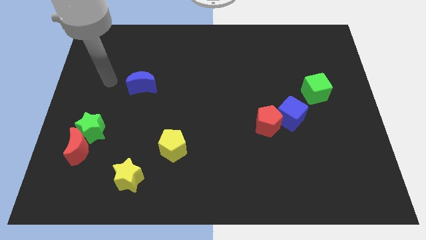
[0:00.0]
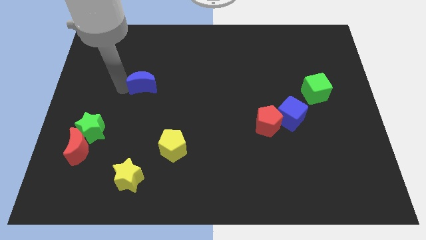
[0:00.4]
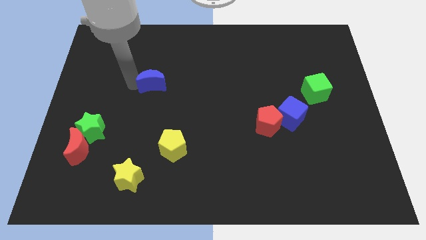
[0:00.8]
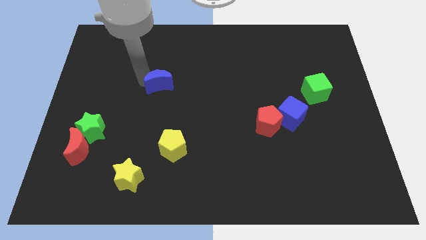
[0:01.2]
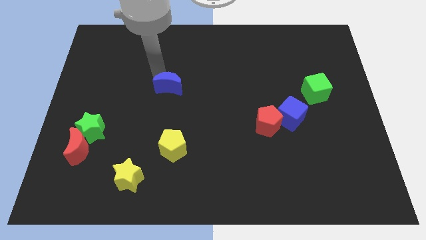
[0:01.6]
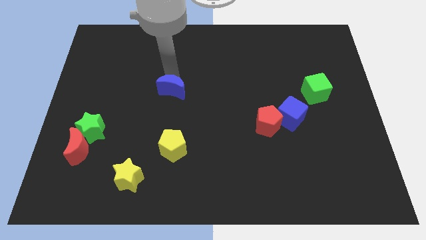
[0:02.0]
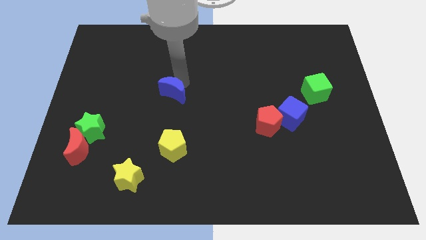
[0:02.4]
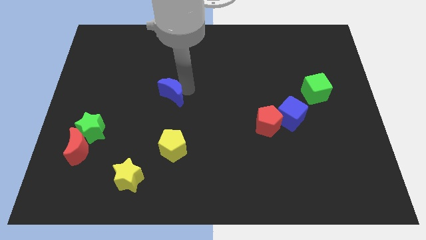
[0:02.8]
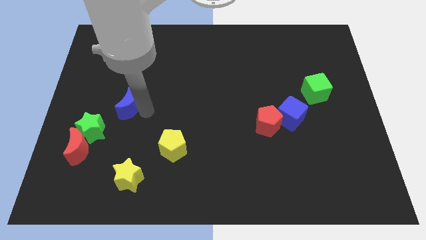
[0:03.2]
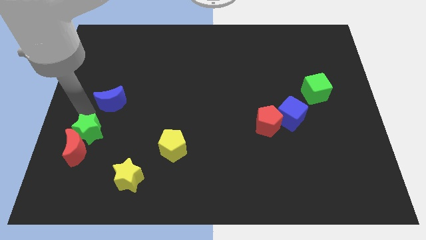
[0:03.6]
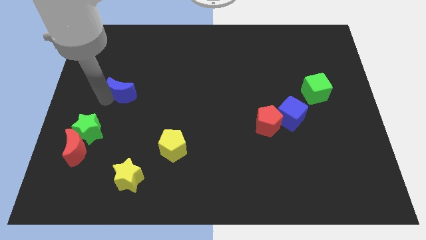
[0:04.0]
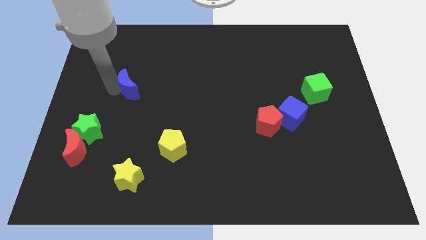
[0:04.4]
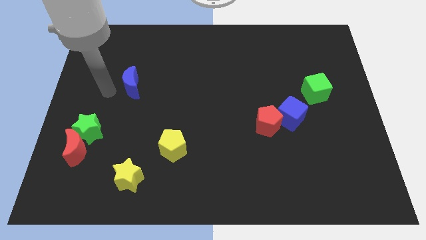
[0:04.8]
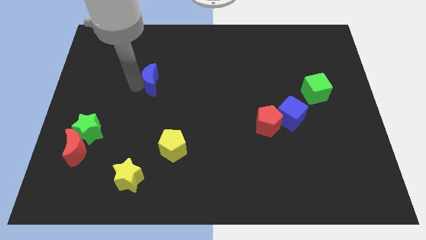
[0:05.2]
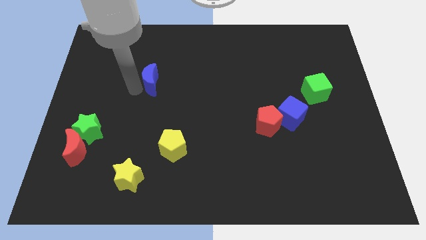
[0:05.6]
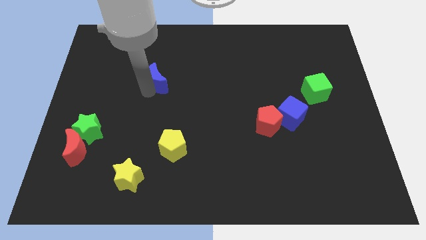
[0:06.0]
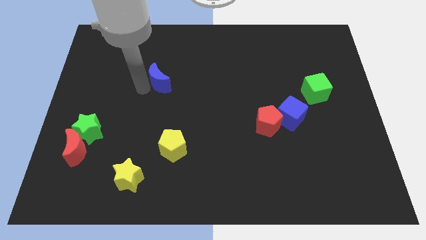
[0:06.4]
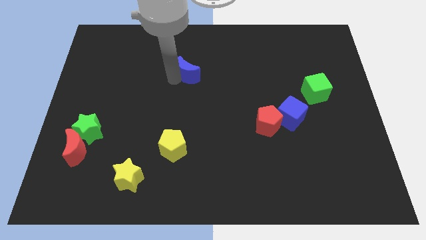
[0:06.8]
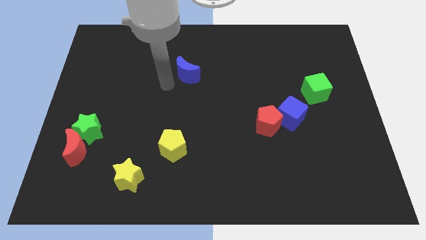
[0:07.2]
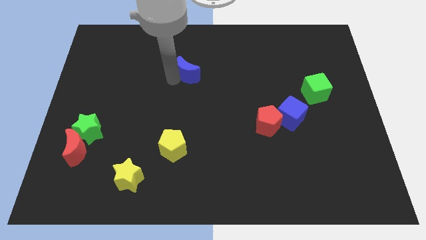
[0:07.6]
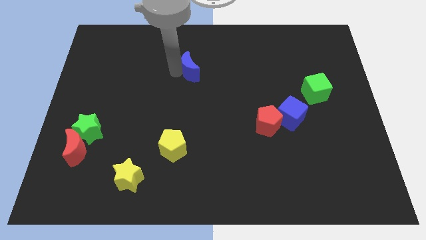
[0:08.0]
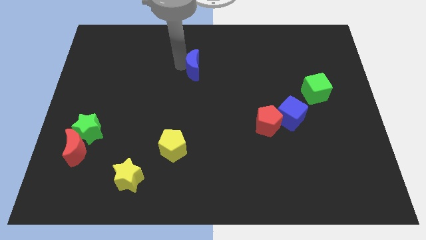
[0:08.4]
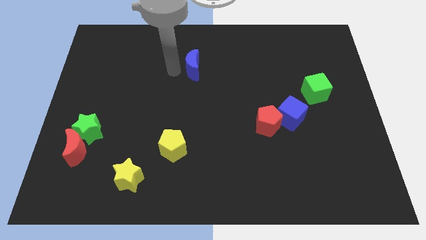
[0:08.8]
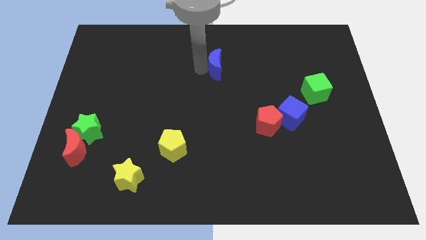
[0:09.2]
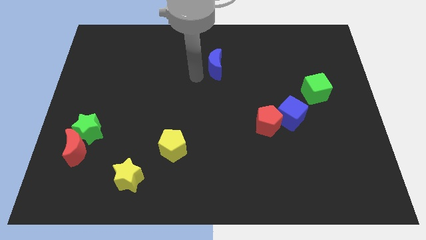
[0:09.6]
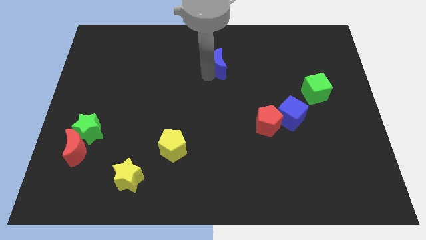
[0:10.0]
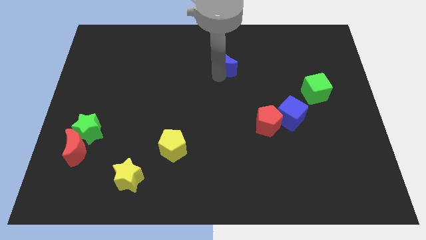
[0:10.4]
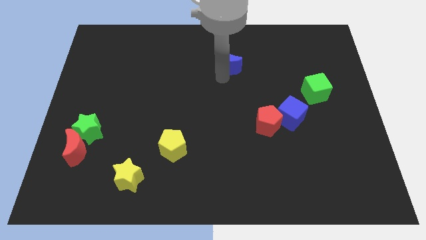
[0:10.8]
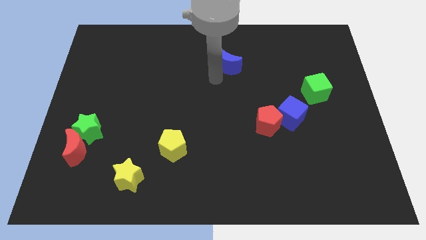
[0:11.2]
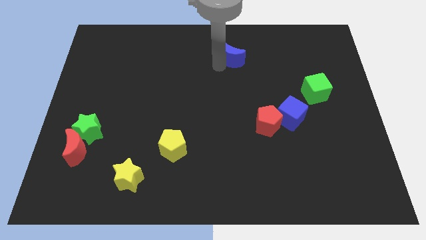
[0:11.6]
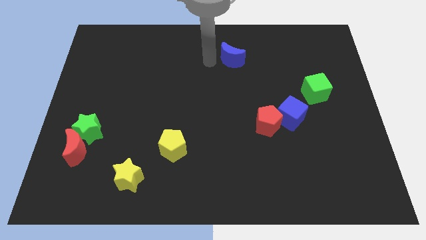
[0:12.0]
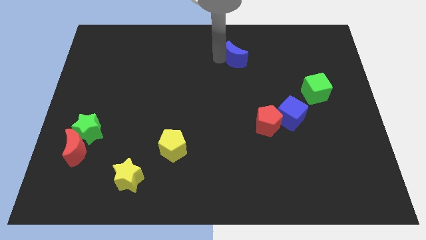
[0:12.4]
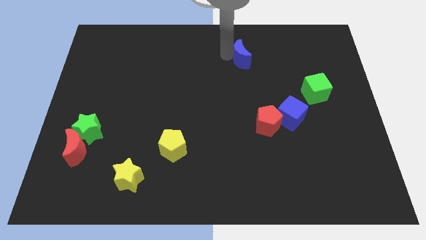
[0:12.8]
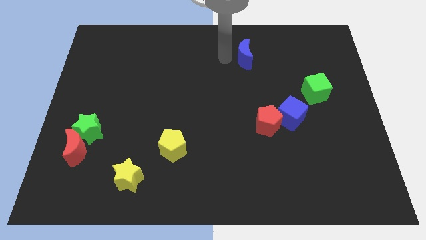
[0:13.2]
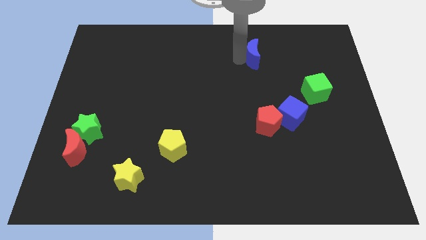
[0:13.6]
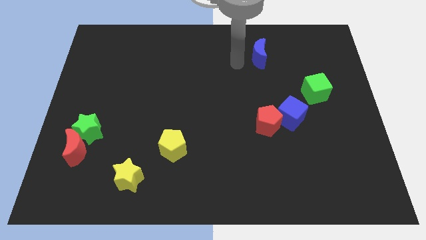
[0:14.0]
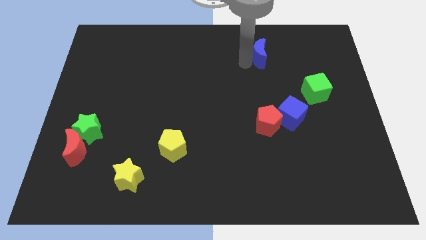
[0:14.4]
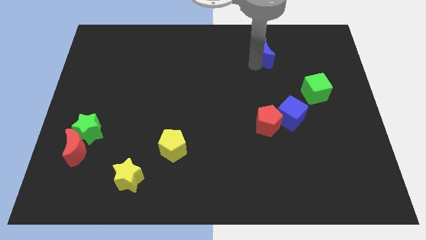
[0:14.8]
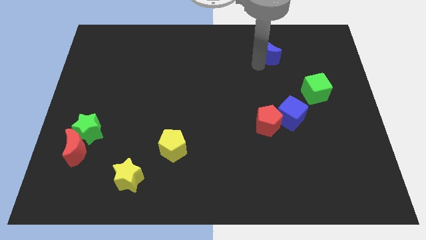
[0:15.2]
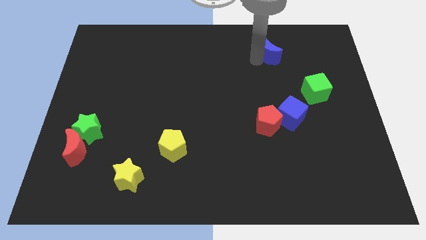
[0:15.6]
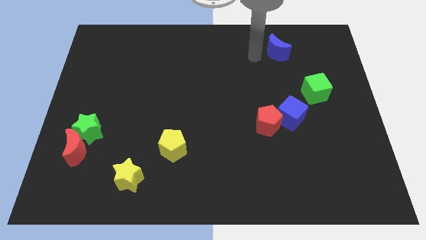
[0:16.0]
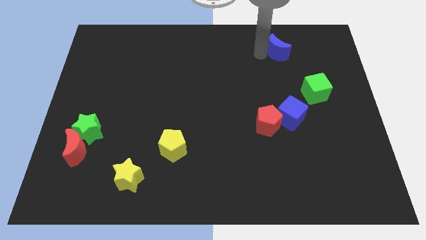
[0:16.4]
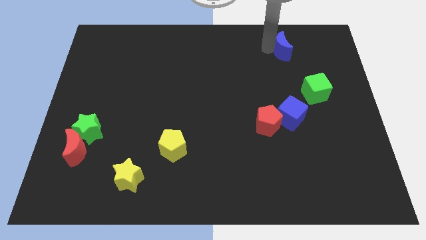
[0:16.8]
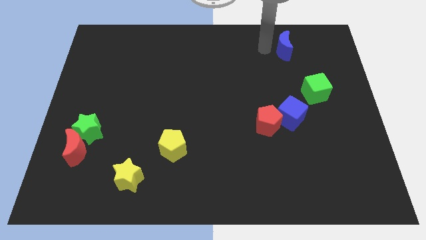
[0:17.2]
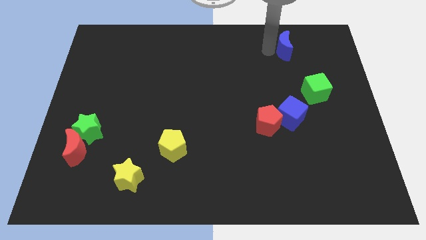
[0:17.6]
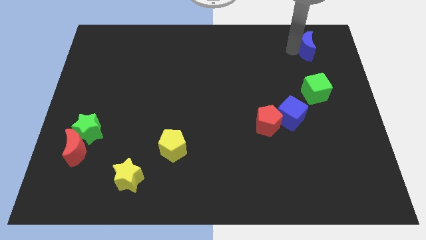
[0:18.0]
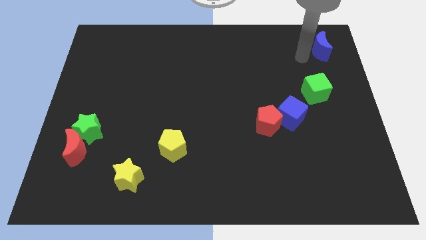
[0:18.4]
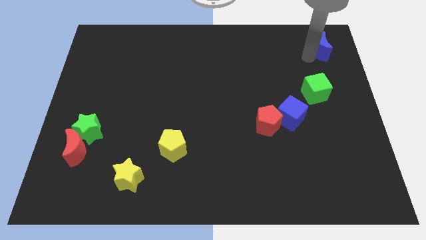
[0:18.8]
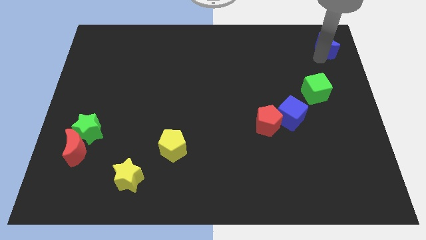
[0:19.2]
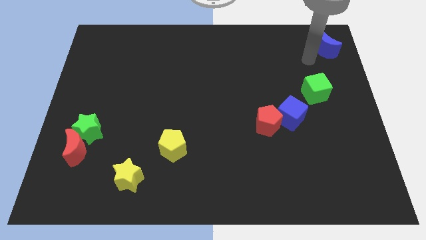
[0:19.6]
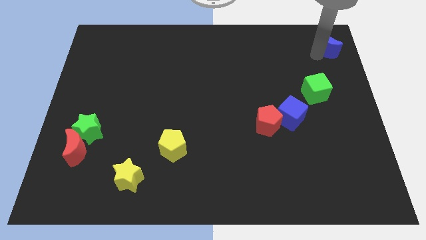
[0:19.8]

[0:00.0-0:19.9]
move the blue moon to the top right of the board

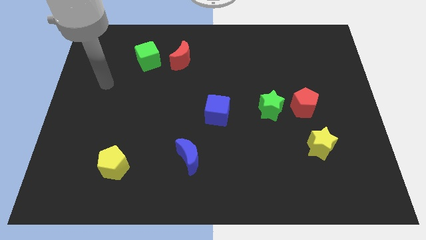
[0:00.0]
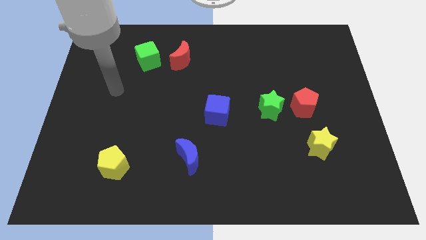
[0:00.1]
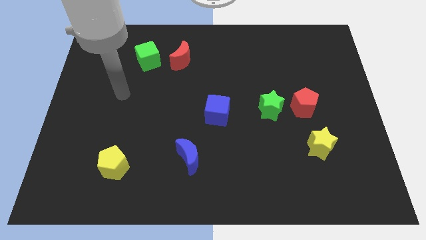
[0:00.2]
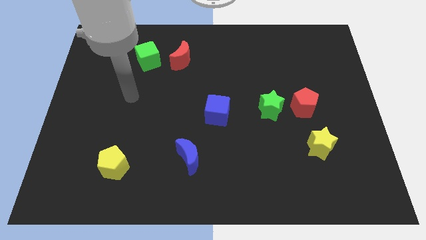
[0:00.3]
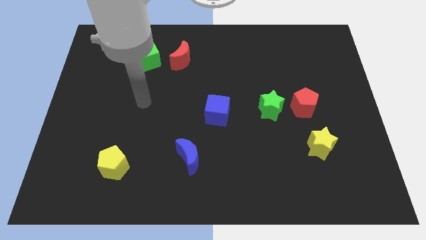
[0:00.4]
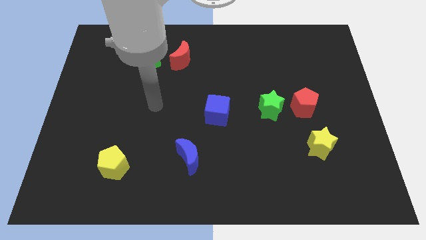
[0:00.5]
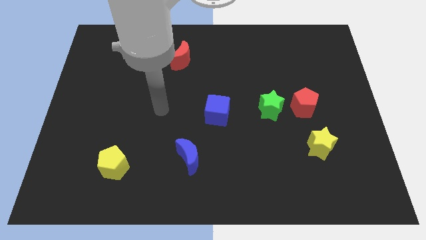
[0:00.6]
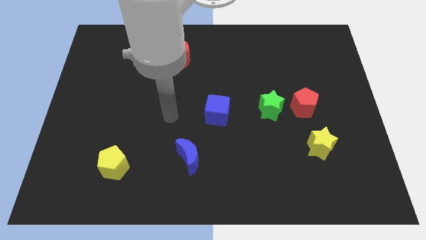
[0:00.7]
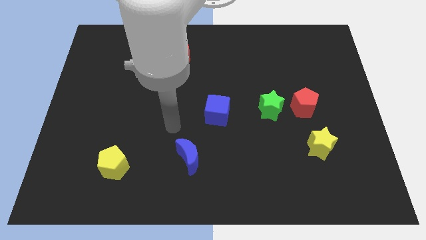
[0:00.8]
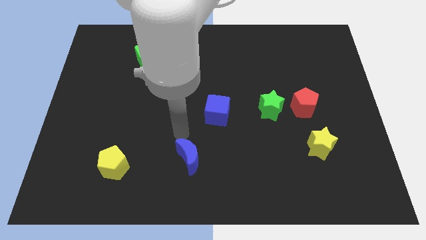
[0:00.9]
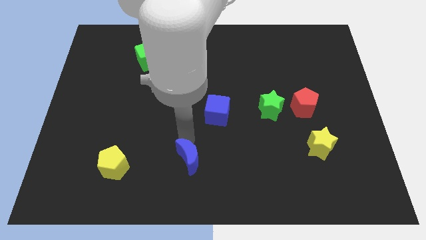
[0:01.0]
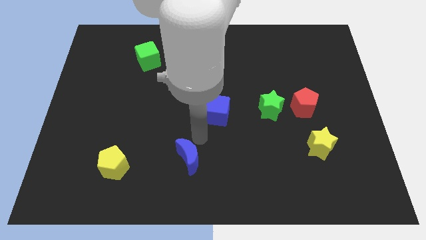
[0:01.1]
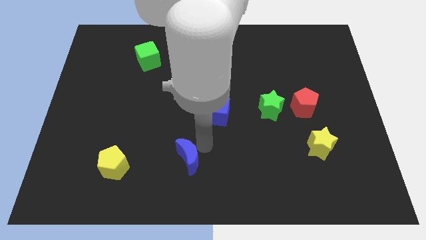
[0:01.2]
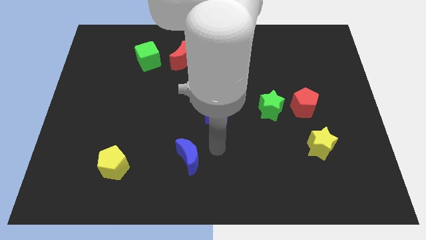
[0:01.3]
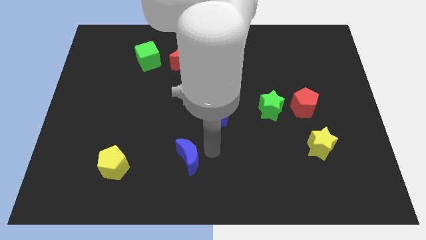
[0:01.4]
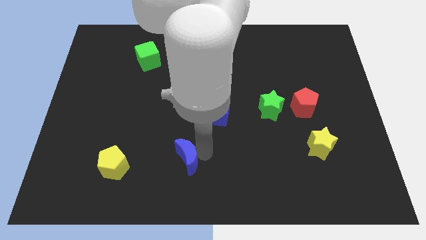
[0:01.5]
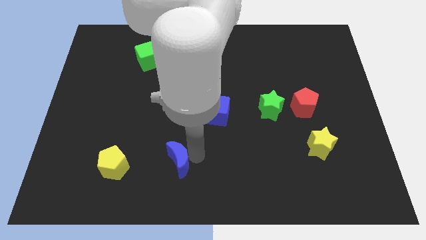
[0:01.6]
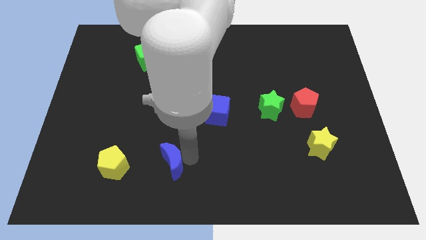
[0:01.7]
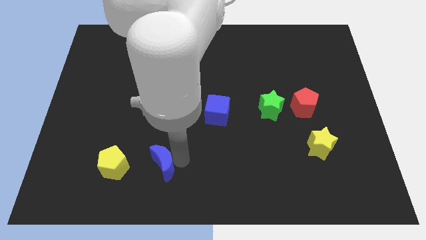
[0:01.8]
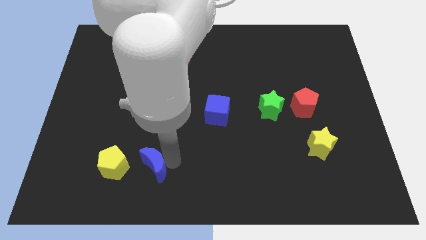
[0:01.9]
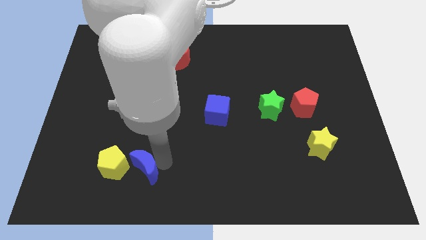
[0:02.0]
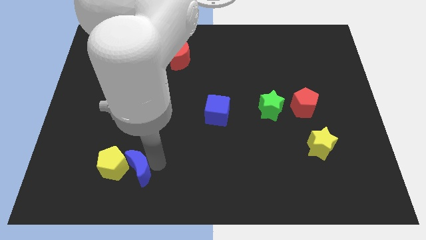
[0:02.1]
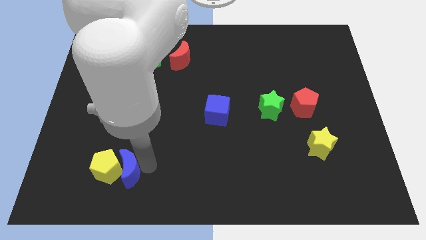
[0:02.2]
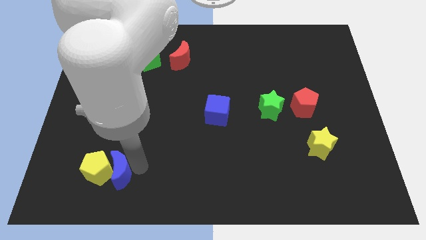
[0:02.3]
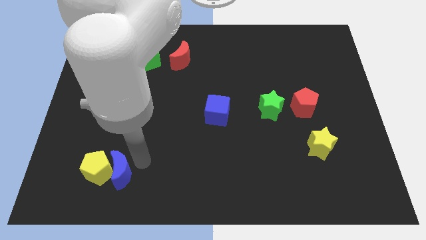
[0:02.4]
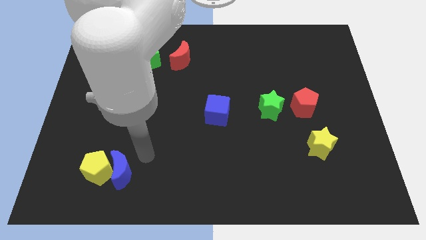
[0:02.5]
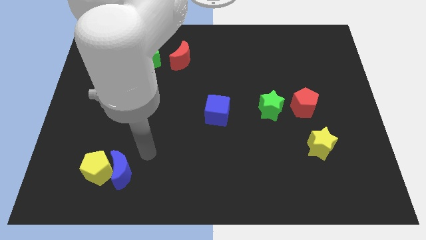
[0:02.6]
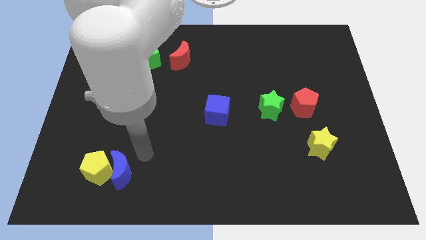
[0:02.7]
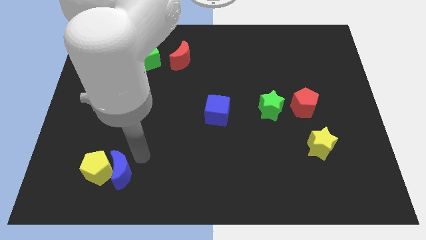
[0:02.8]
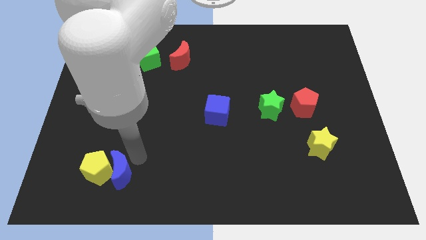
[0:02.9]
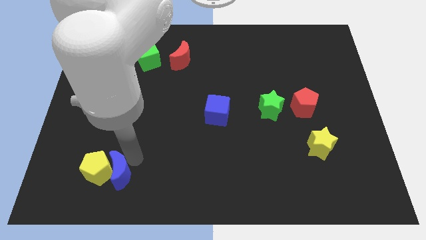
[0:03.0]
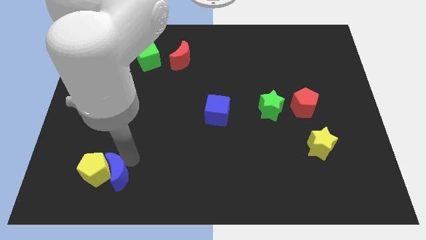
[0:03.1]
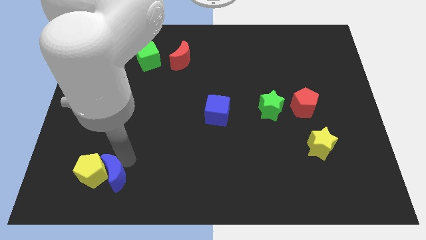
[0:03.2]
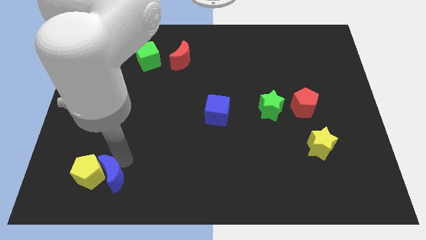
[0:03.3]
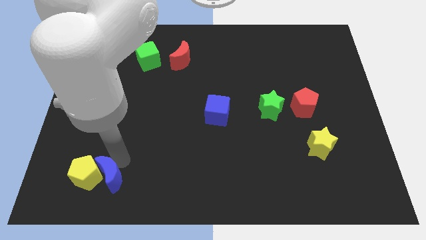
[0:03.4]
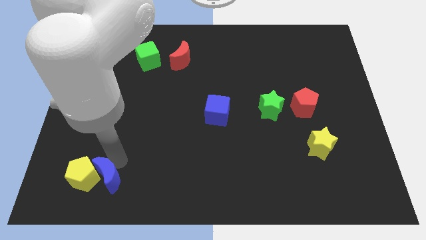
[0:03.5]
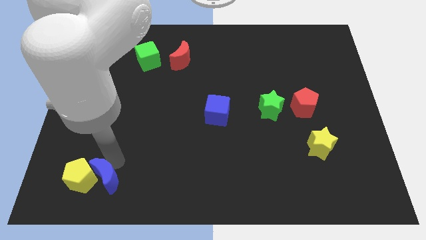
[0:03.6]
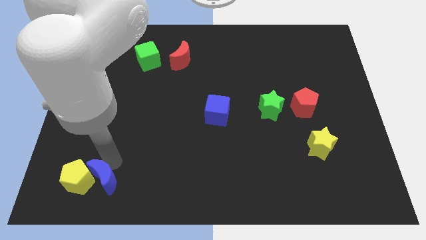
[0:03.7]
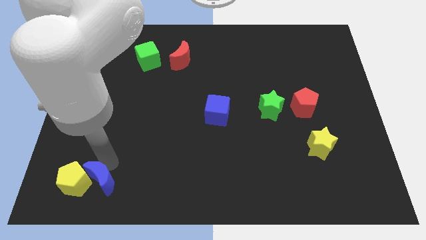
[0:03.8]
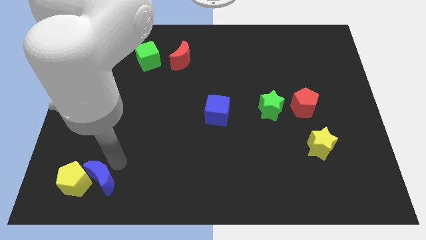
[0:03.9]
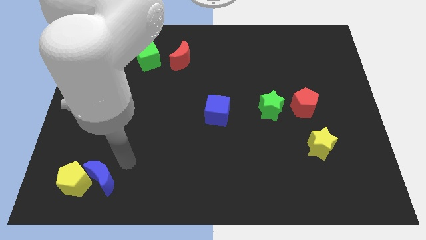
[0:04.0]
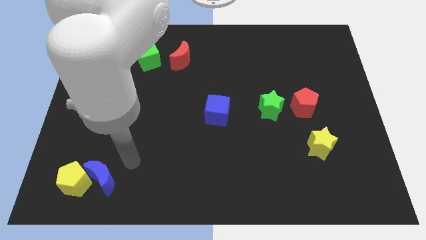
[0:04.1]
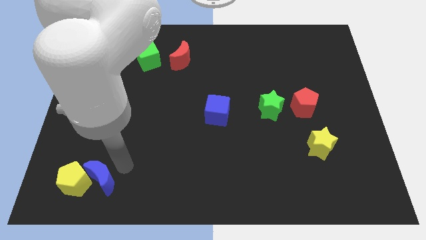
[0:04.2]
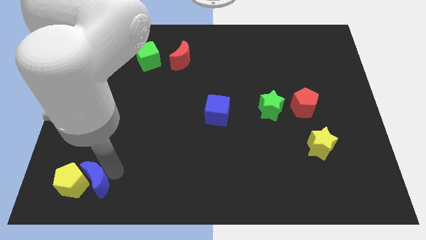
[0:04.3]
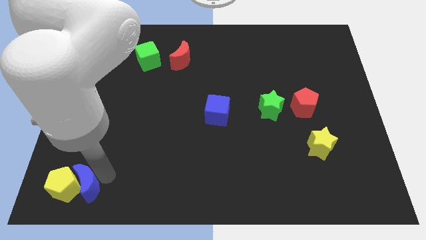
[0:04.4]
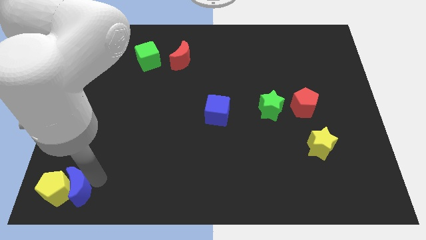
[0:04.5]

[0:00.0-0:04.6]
put the blue moon to the bottom left
